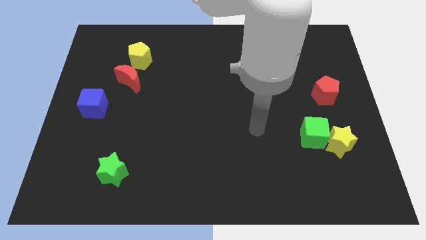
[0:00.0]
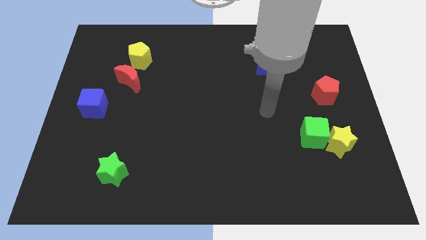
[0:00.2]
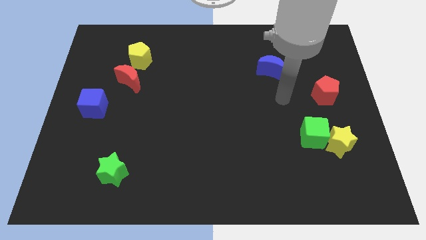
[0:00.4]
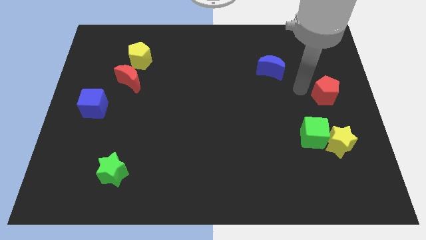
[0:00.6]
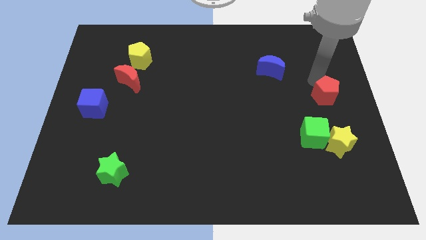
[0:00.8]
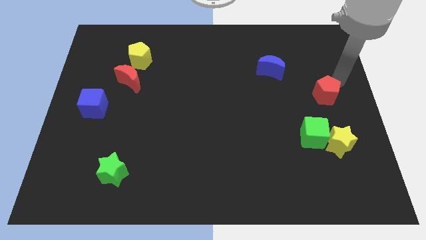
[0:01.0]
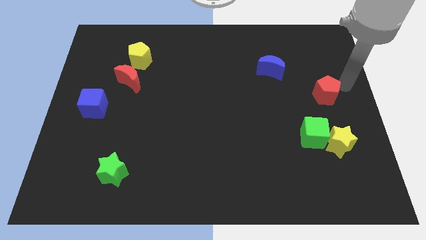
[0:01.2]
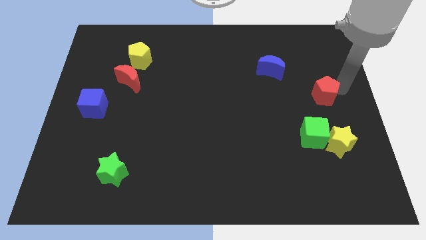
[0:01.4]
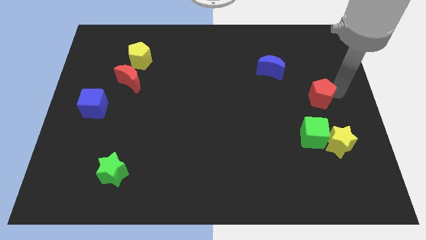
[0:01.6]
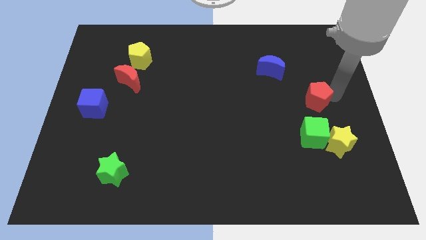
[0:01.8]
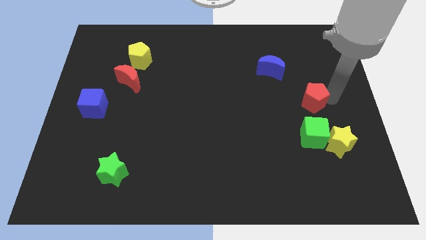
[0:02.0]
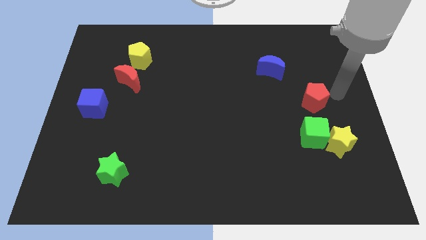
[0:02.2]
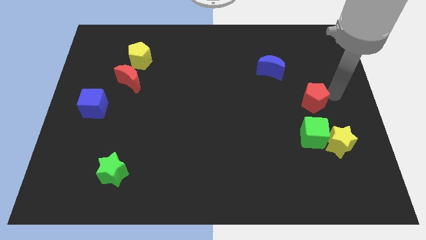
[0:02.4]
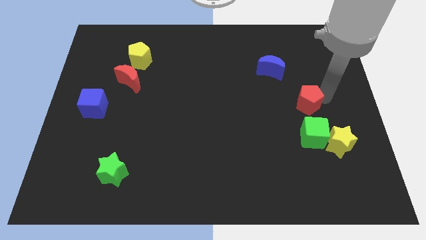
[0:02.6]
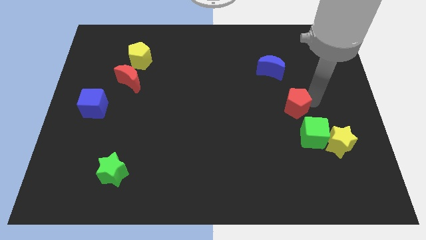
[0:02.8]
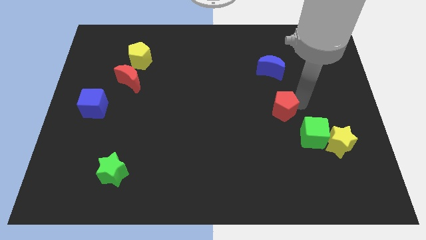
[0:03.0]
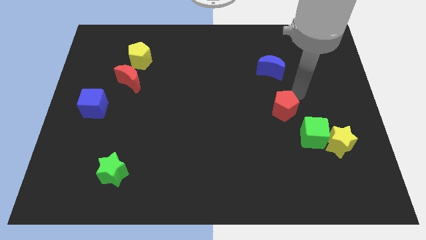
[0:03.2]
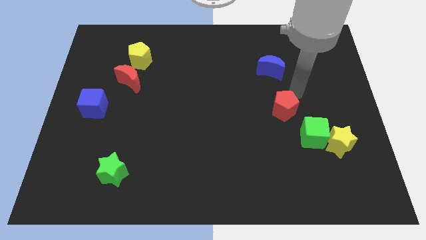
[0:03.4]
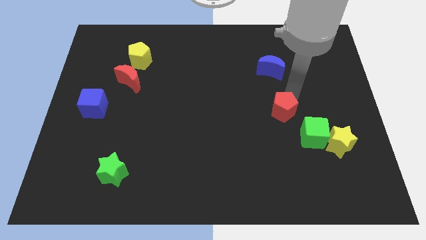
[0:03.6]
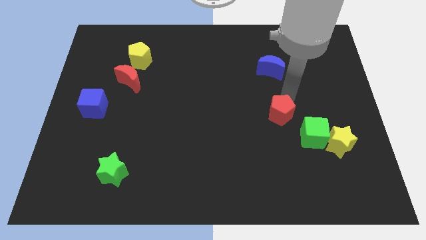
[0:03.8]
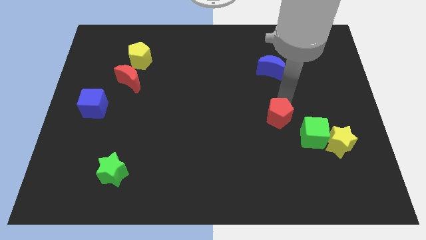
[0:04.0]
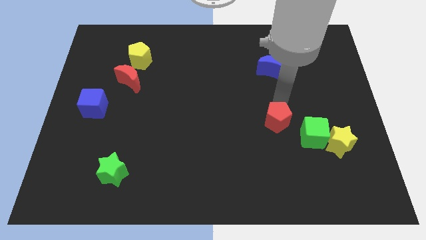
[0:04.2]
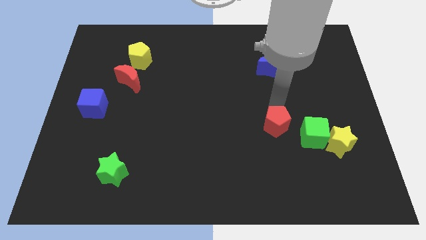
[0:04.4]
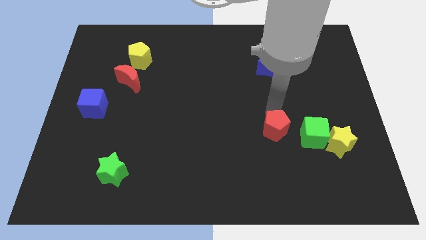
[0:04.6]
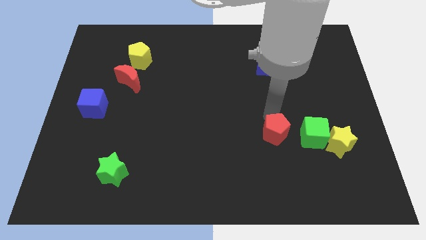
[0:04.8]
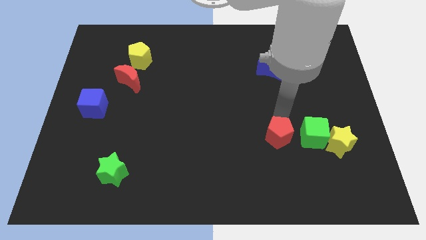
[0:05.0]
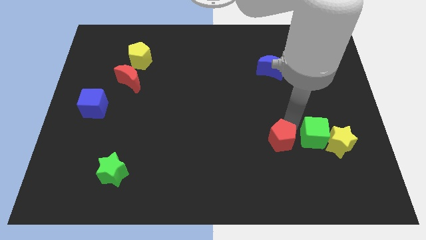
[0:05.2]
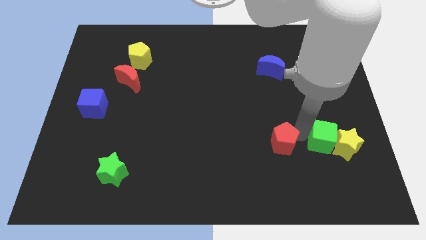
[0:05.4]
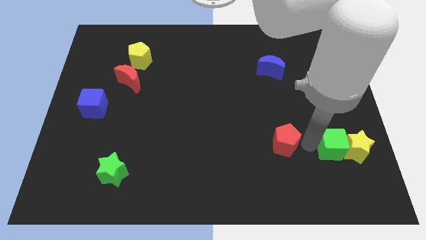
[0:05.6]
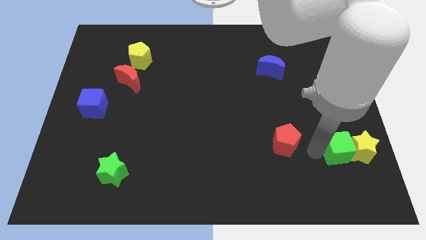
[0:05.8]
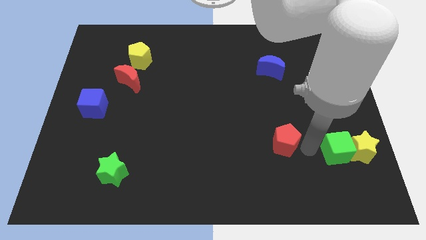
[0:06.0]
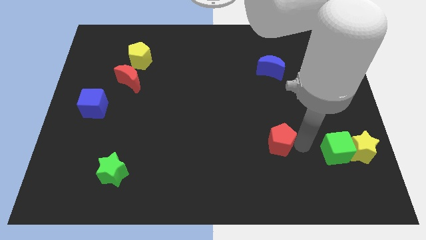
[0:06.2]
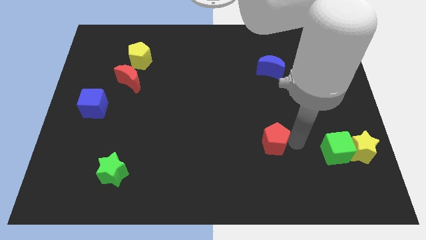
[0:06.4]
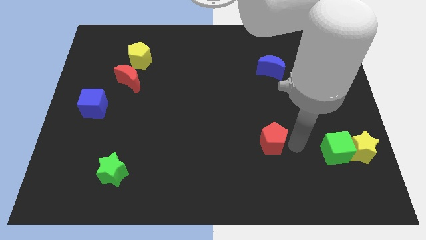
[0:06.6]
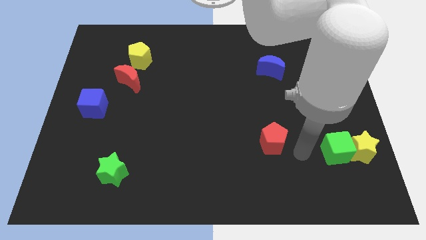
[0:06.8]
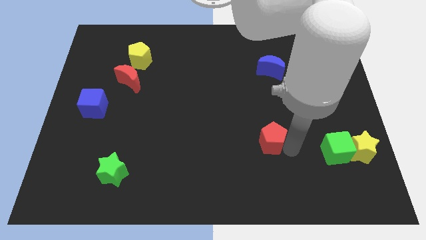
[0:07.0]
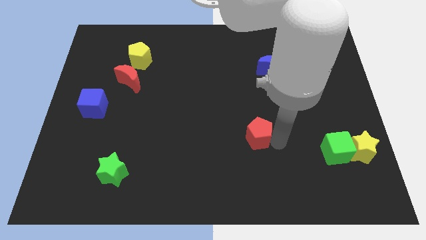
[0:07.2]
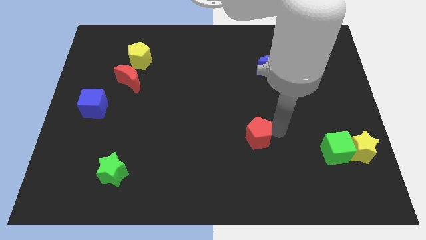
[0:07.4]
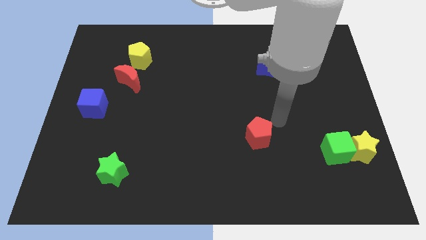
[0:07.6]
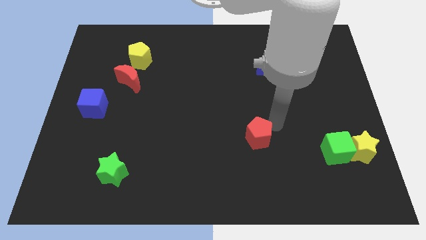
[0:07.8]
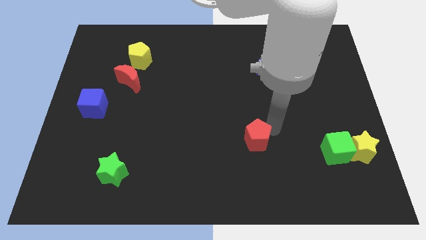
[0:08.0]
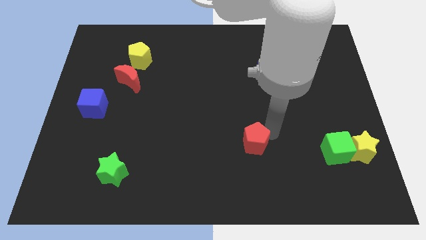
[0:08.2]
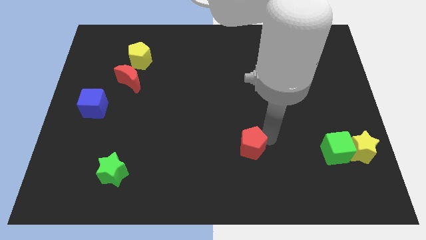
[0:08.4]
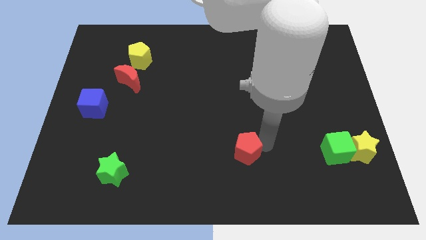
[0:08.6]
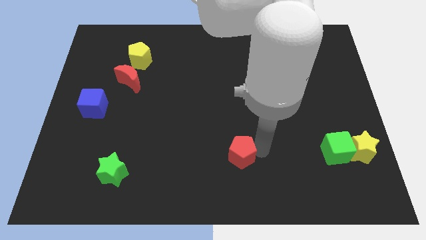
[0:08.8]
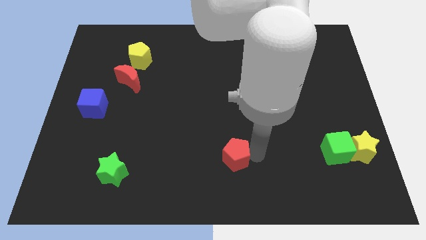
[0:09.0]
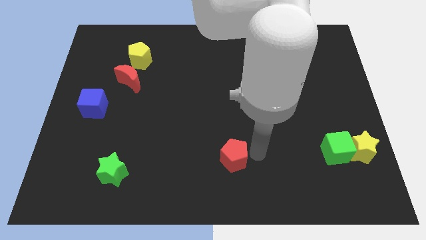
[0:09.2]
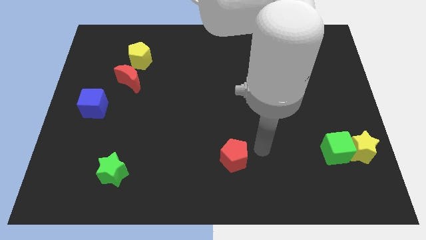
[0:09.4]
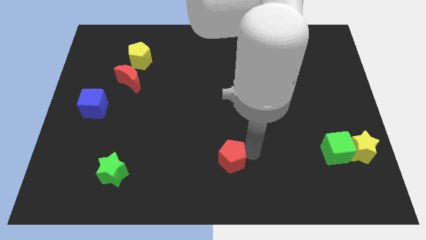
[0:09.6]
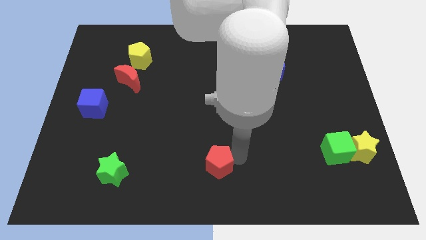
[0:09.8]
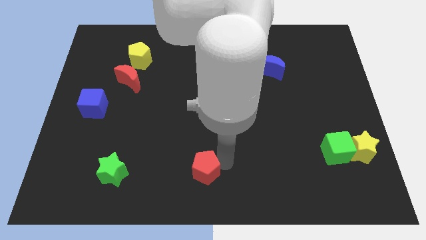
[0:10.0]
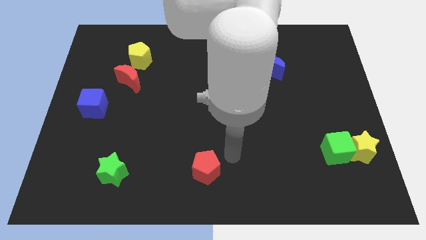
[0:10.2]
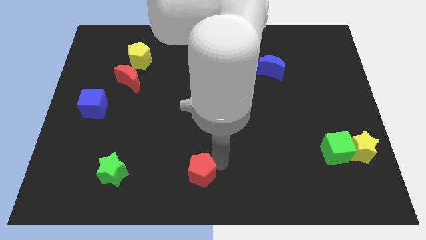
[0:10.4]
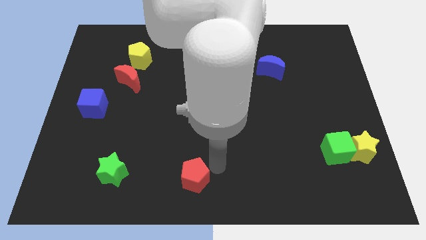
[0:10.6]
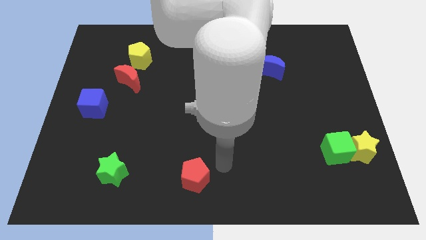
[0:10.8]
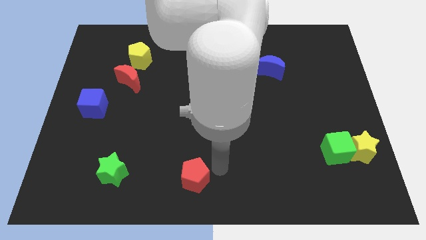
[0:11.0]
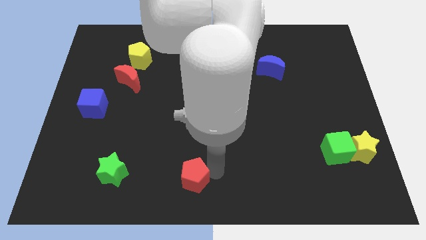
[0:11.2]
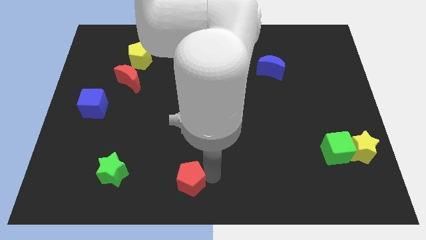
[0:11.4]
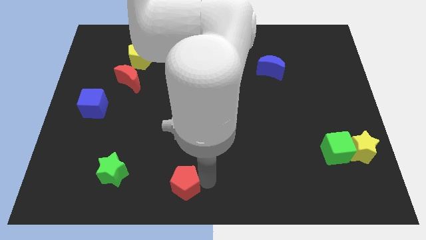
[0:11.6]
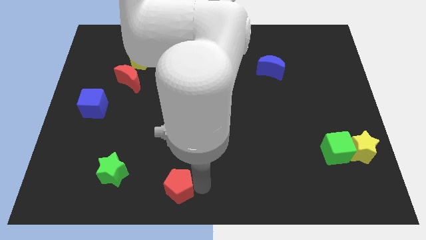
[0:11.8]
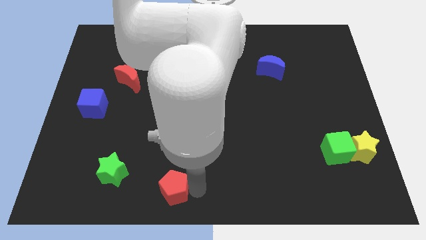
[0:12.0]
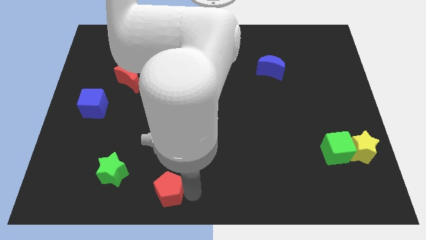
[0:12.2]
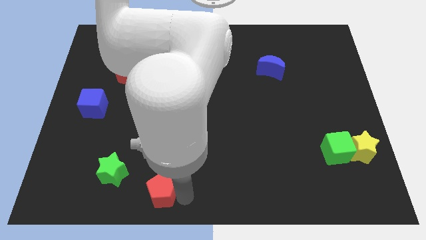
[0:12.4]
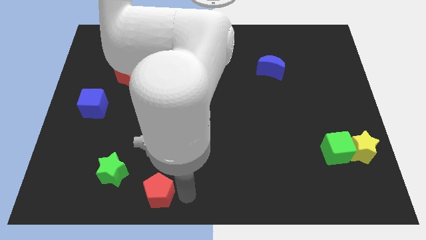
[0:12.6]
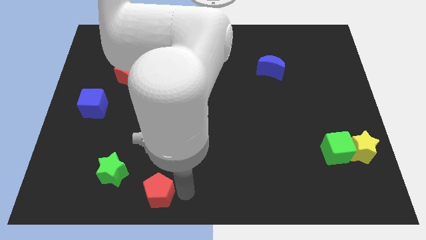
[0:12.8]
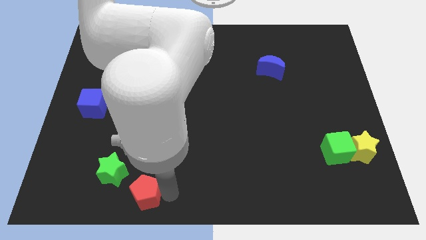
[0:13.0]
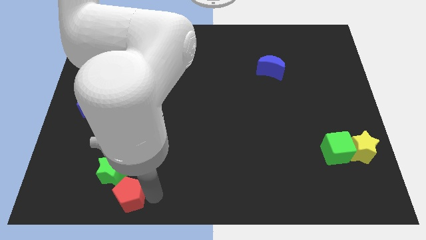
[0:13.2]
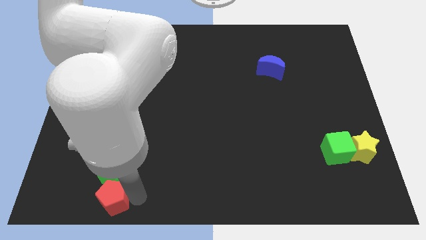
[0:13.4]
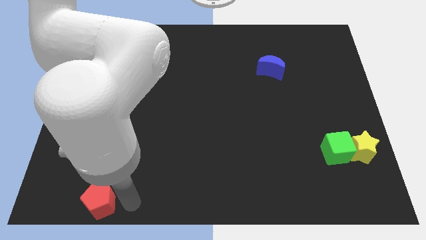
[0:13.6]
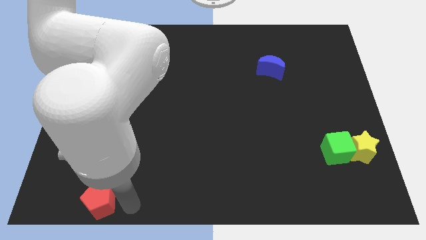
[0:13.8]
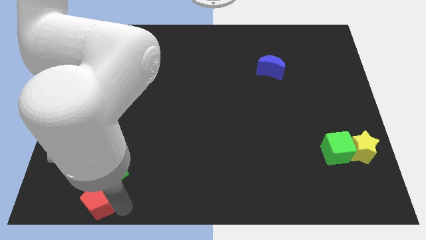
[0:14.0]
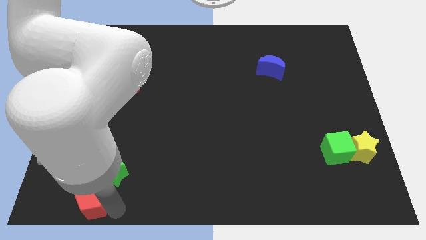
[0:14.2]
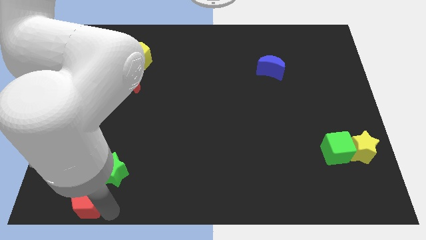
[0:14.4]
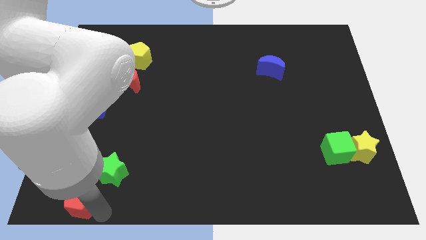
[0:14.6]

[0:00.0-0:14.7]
push the red pentagon to the bottom left corner
